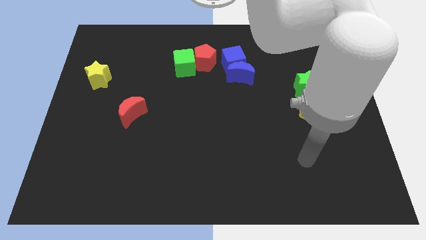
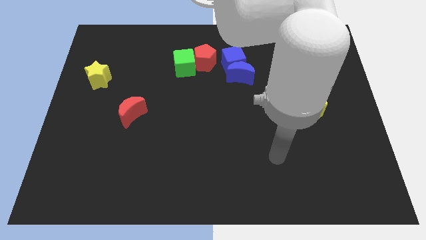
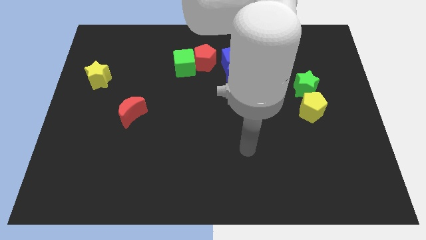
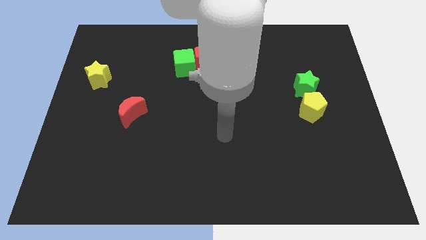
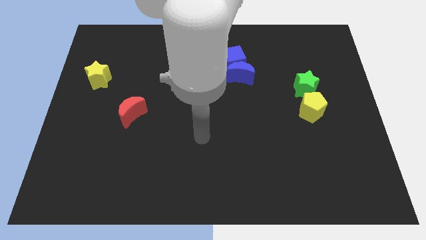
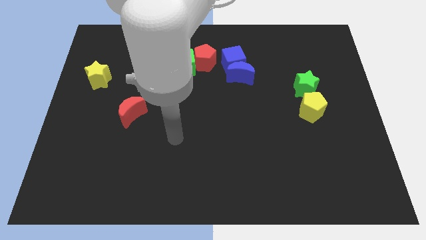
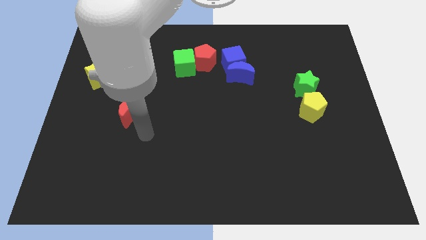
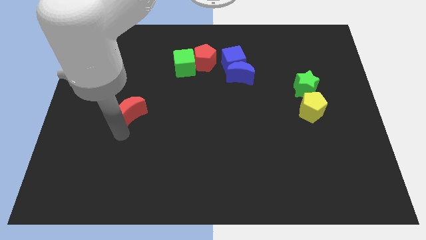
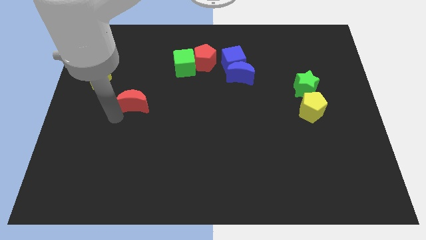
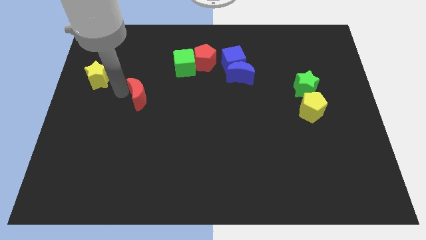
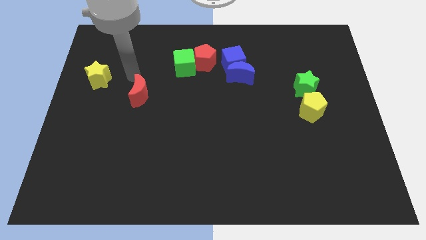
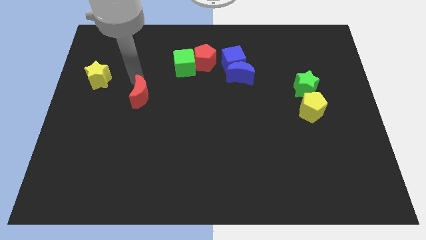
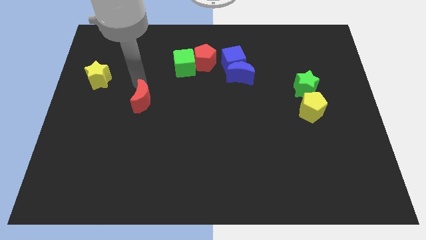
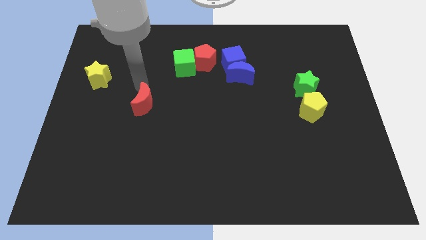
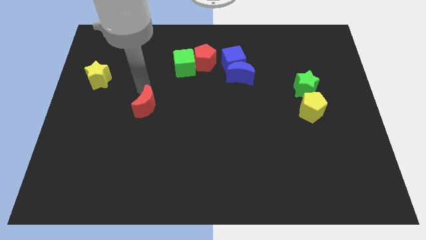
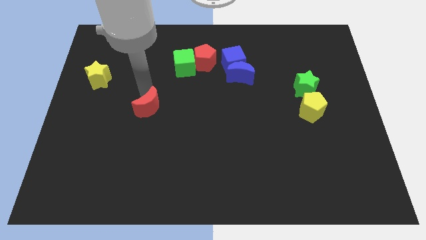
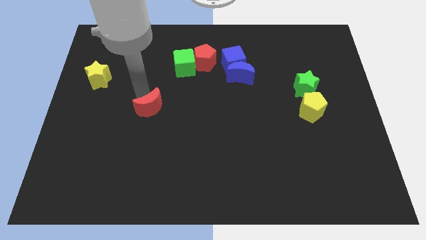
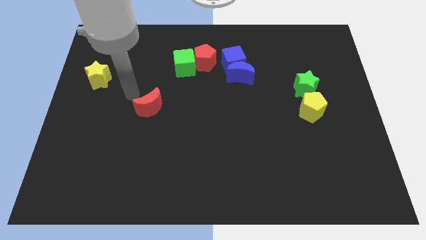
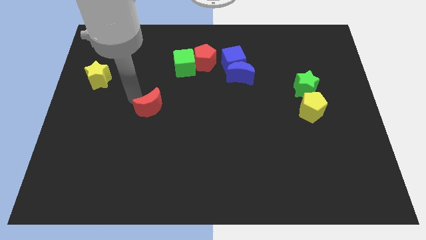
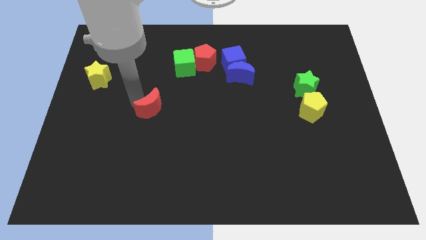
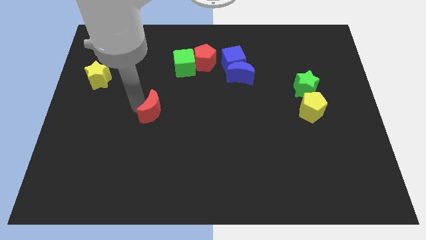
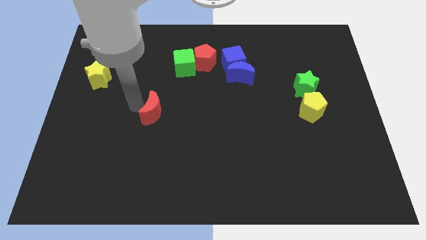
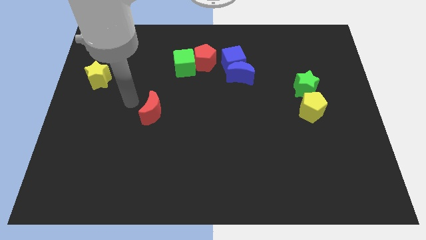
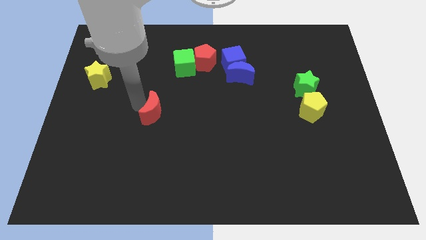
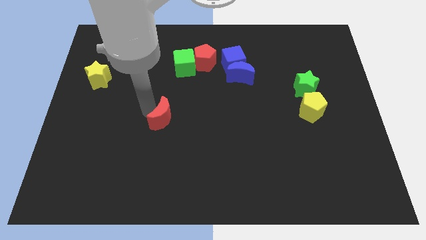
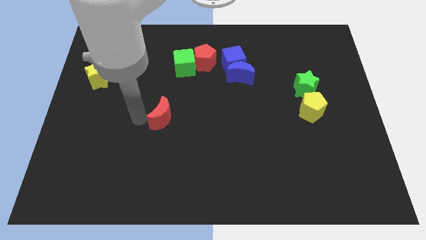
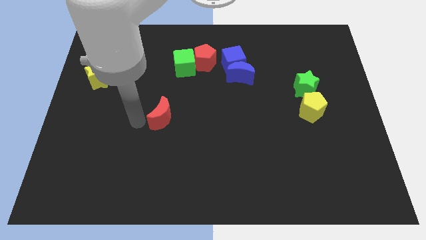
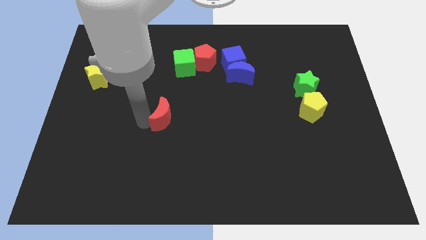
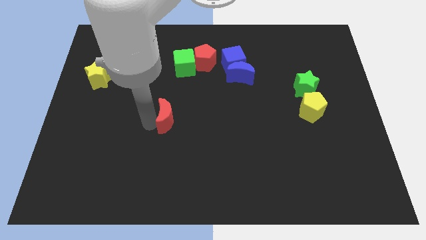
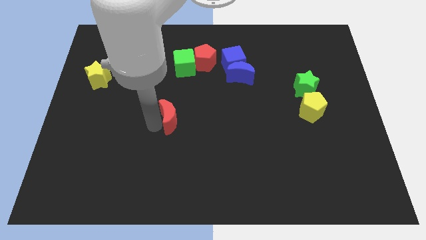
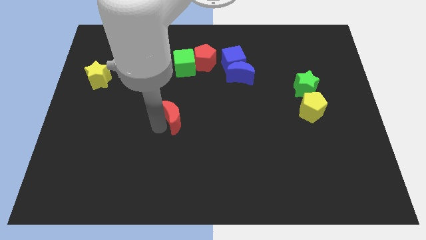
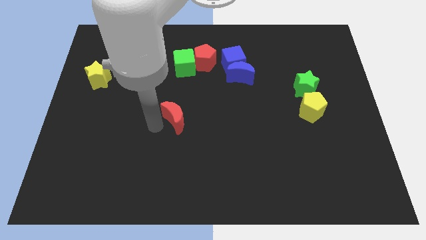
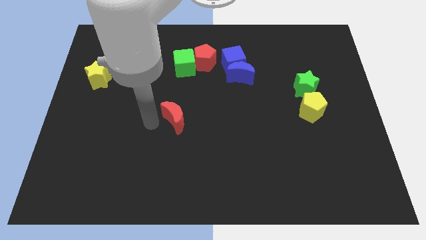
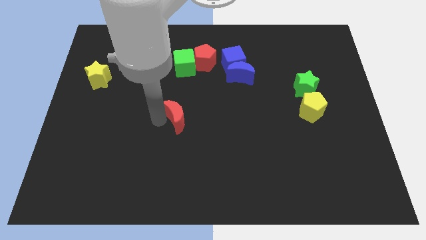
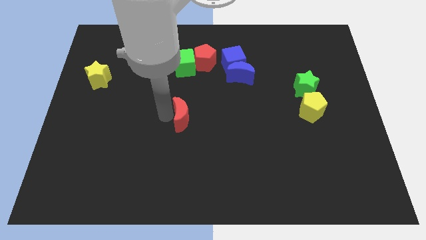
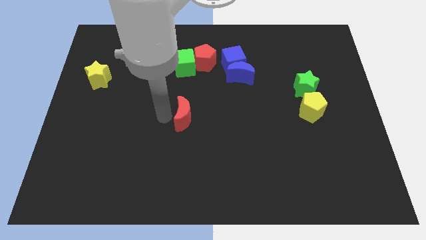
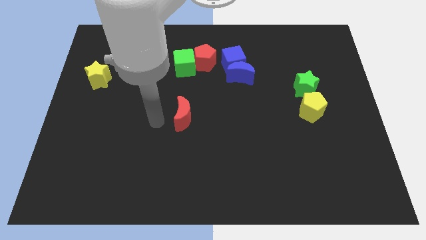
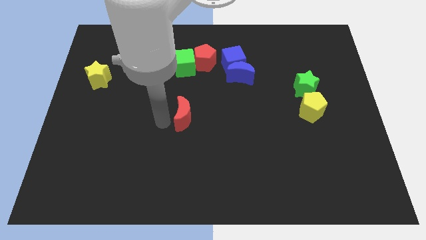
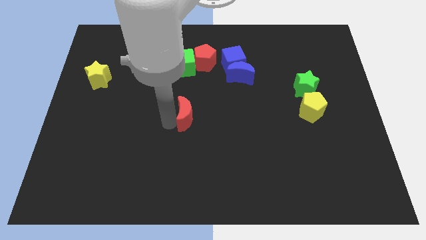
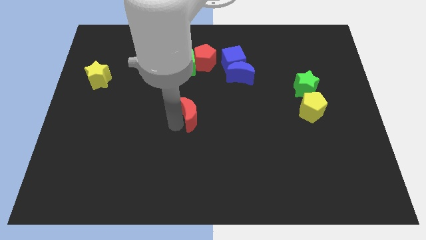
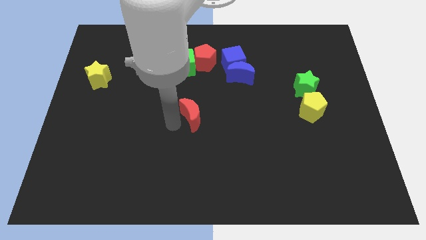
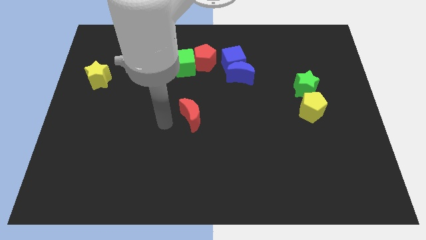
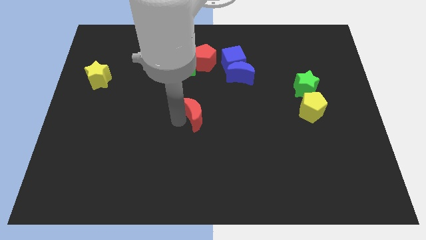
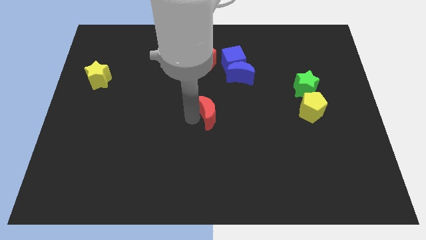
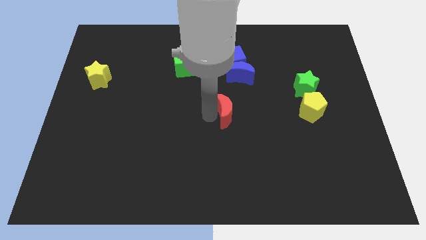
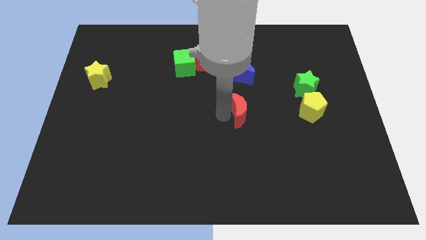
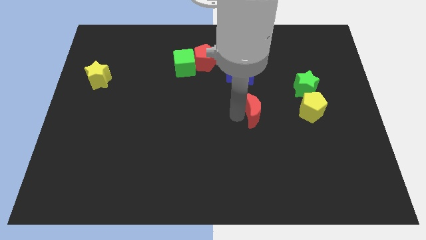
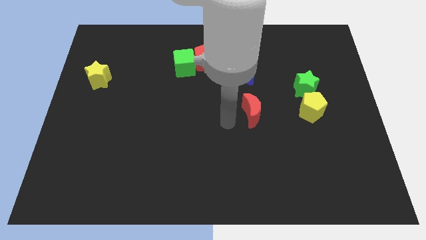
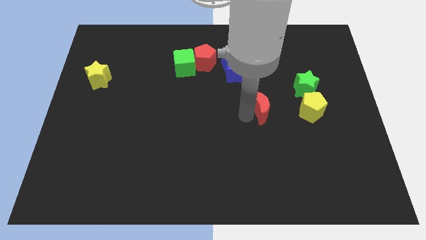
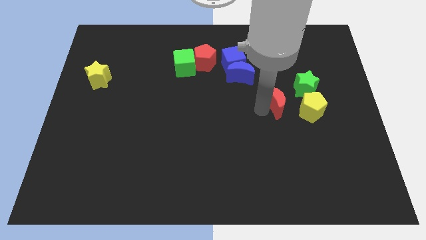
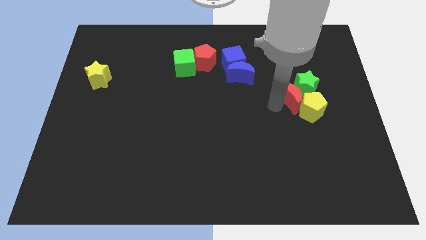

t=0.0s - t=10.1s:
slide the red moon close to the green star

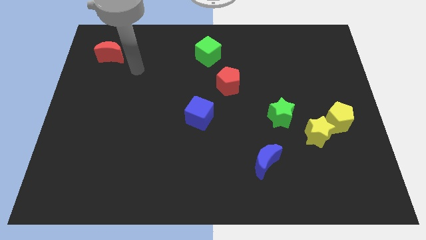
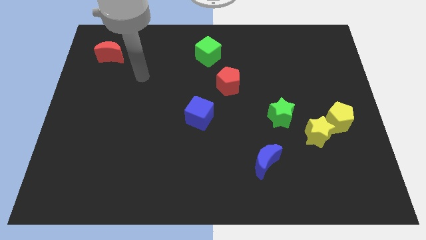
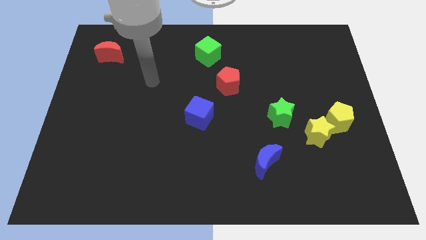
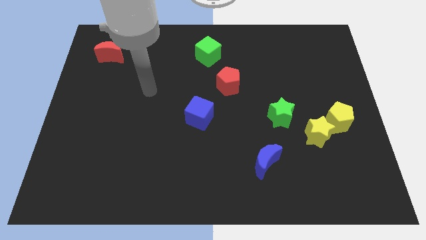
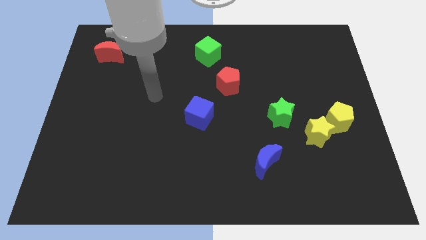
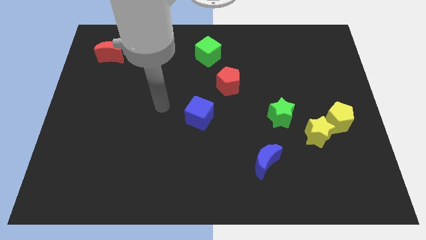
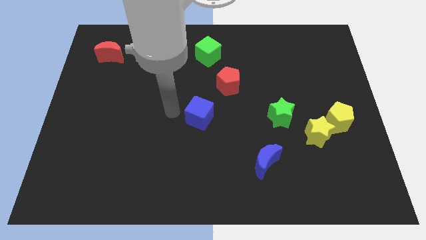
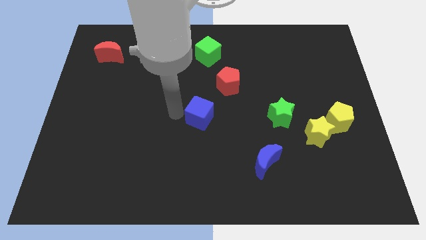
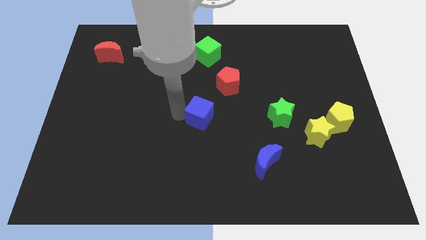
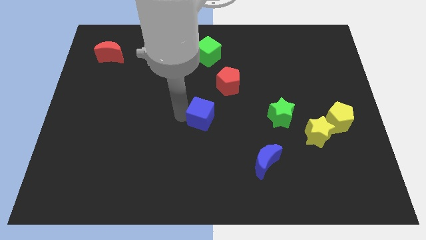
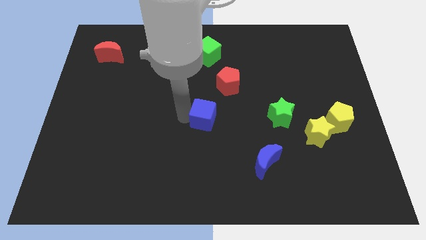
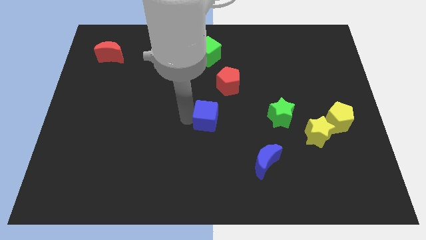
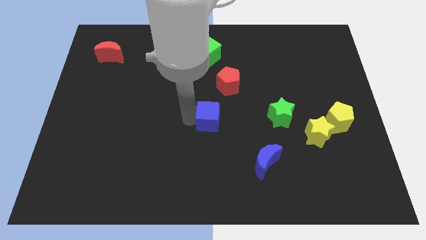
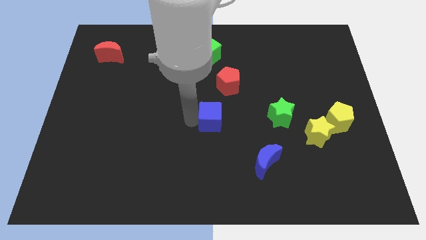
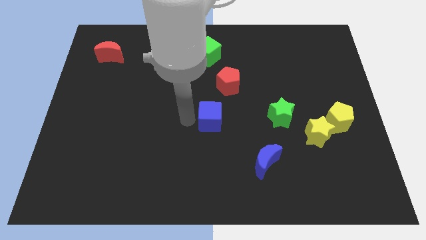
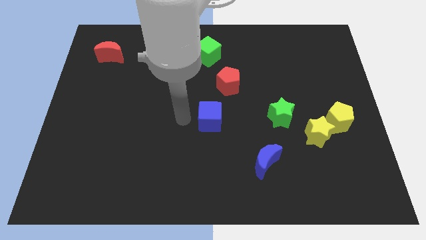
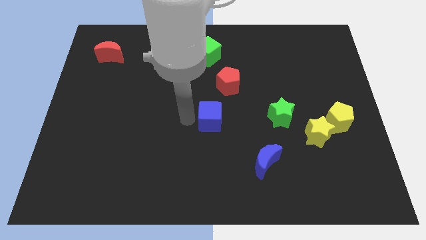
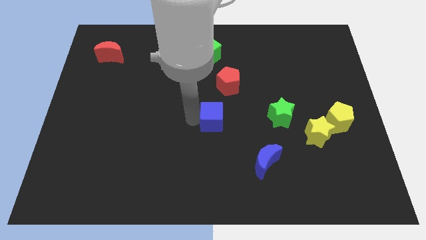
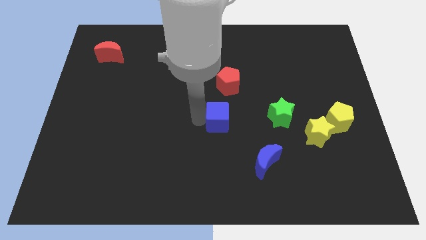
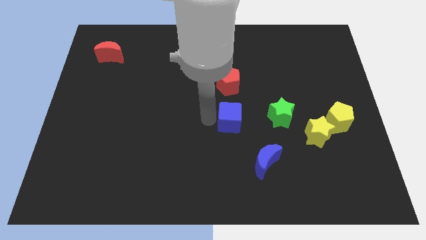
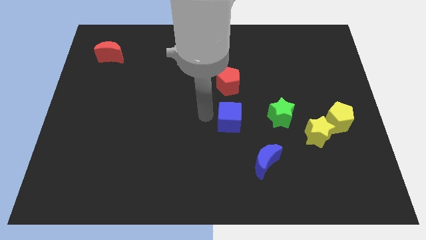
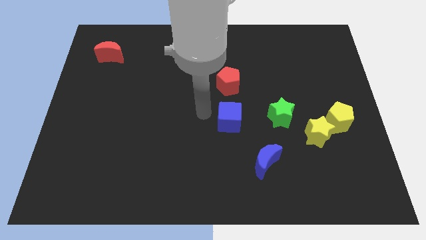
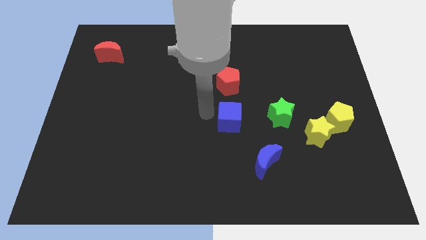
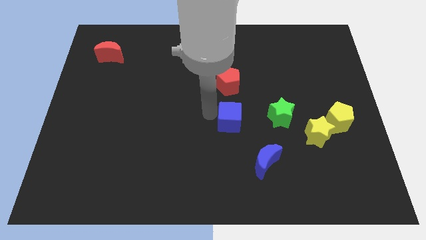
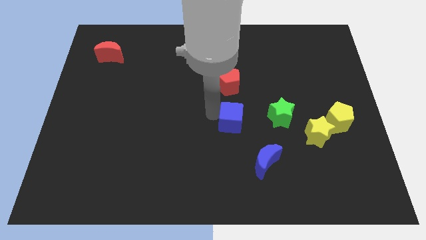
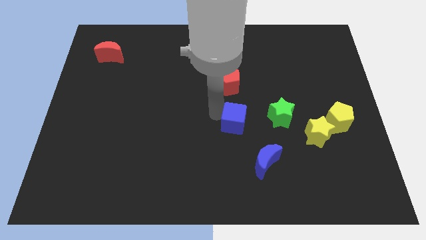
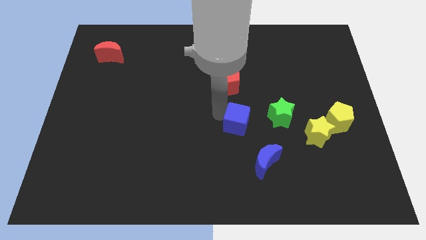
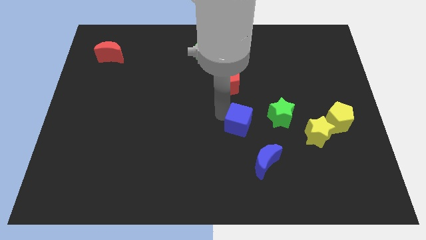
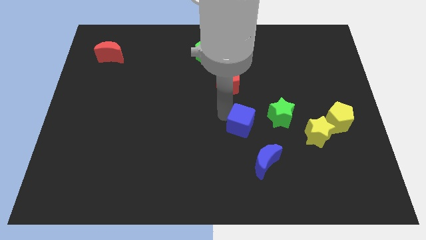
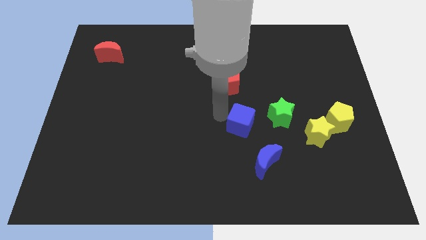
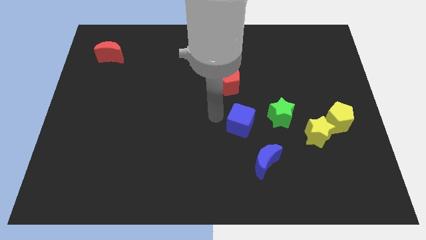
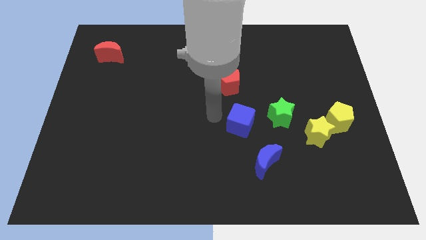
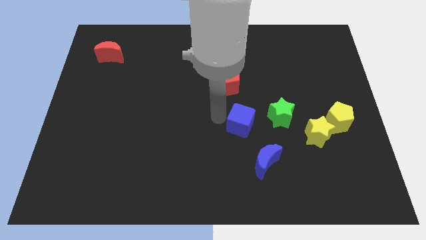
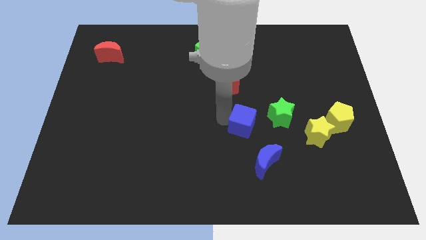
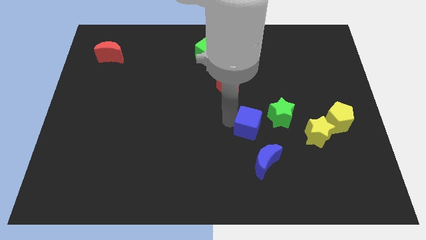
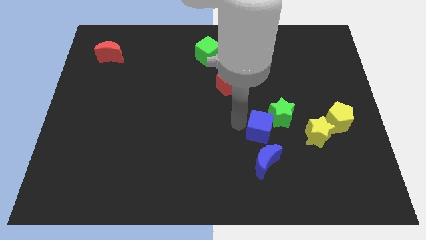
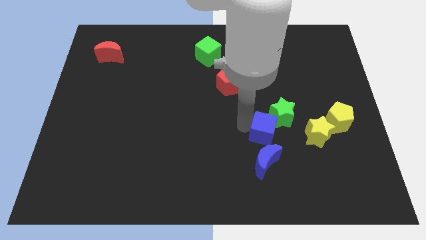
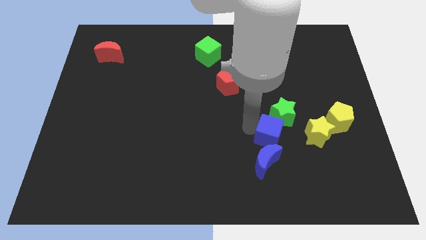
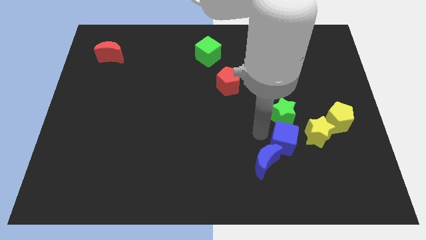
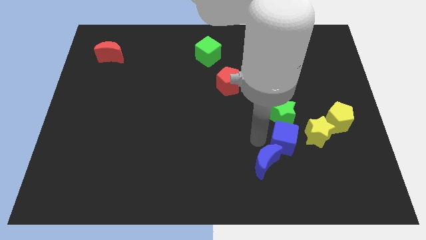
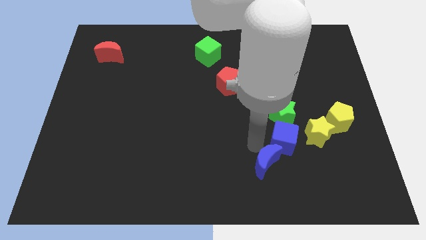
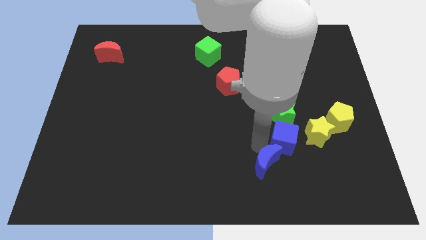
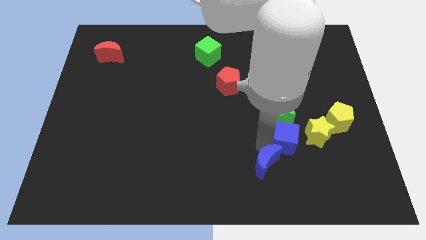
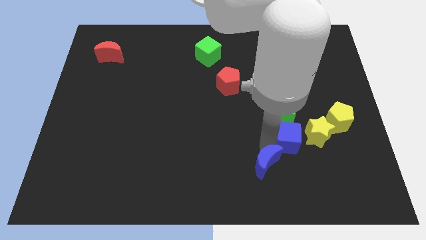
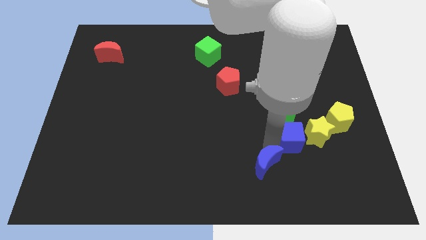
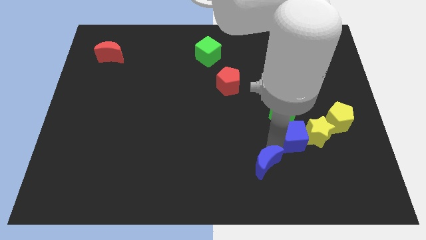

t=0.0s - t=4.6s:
move the blue cube next to the yellow star
